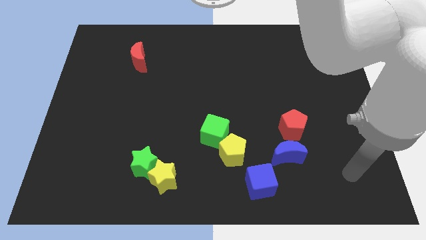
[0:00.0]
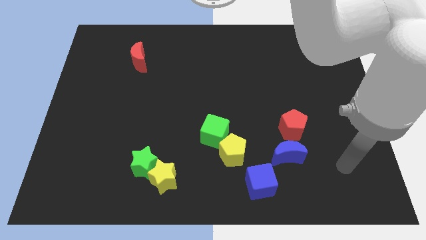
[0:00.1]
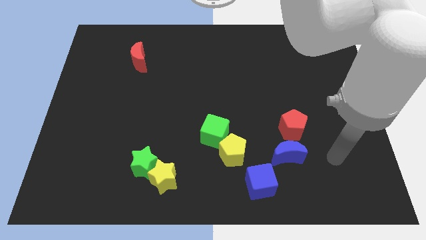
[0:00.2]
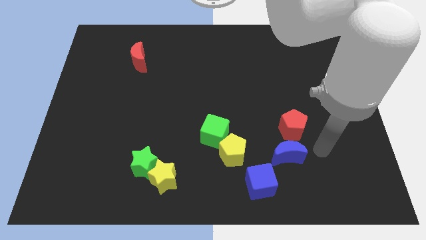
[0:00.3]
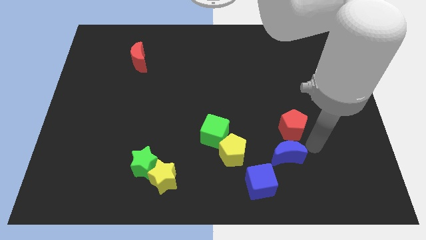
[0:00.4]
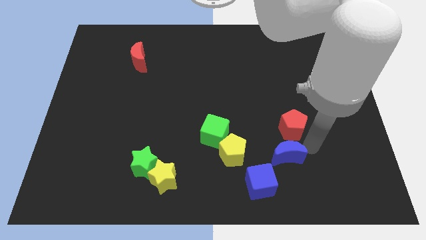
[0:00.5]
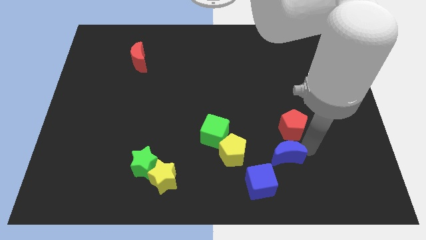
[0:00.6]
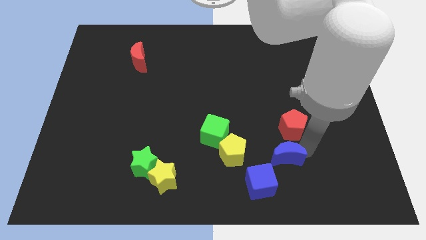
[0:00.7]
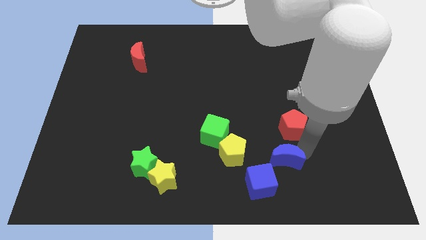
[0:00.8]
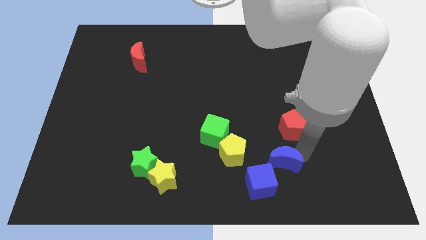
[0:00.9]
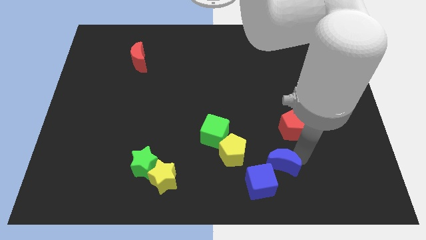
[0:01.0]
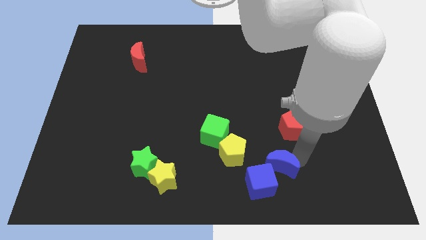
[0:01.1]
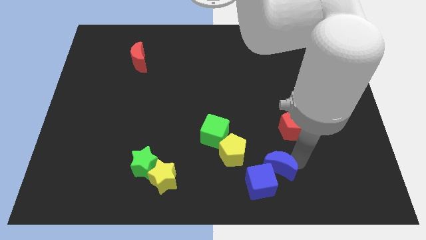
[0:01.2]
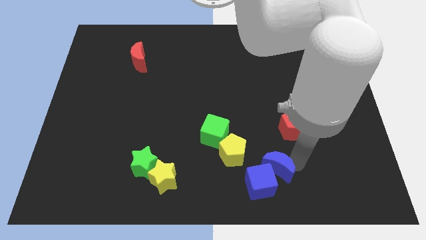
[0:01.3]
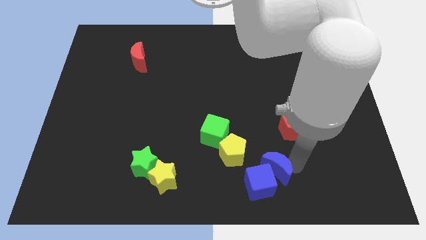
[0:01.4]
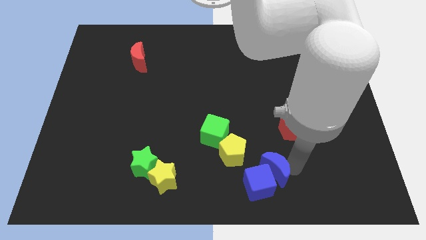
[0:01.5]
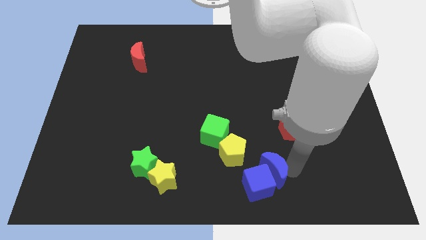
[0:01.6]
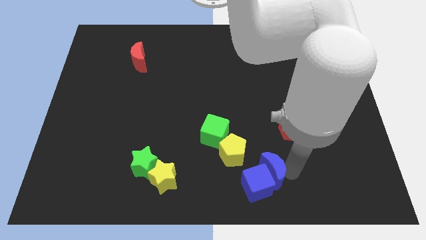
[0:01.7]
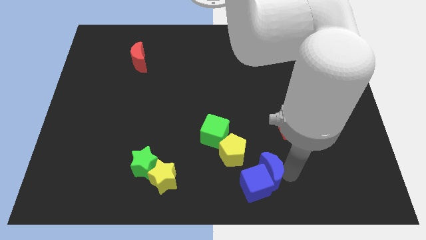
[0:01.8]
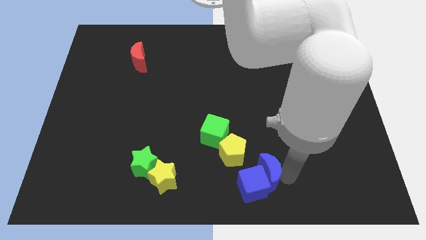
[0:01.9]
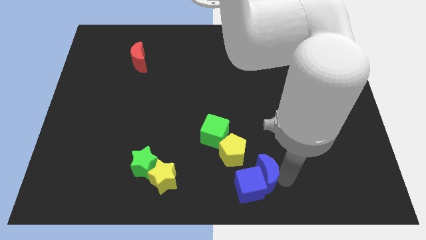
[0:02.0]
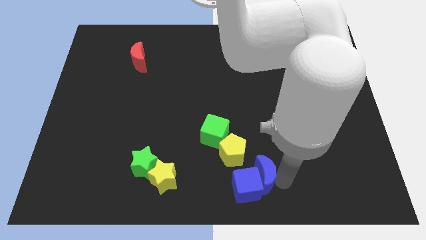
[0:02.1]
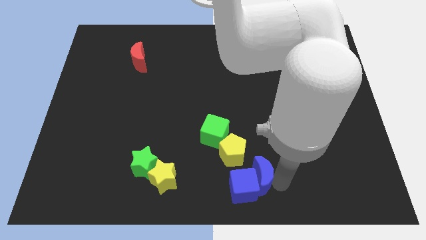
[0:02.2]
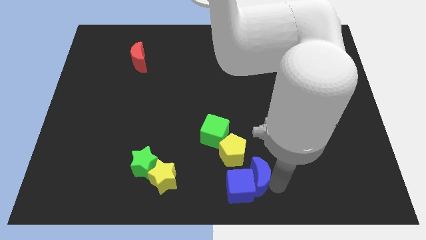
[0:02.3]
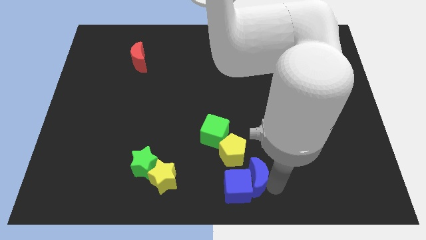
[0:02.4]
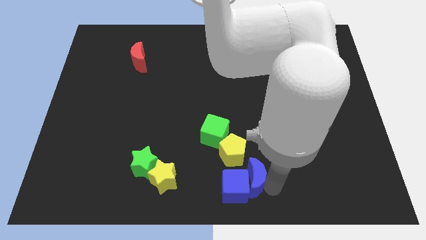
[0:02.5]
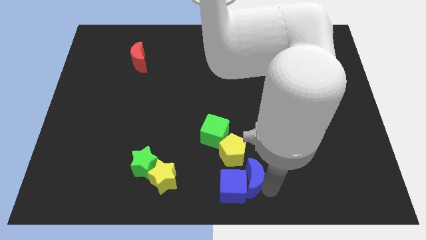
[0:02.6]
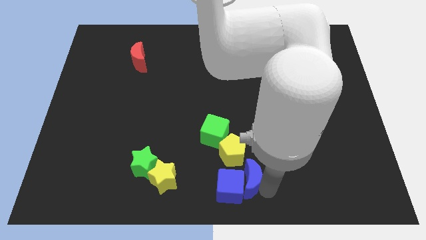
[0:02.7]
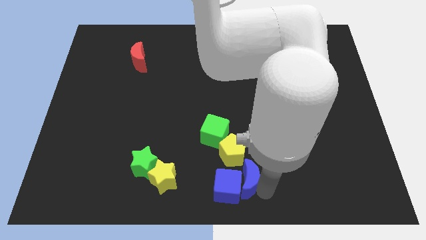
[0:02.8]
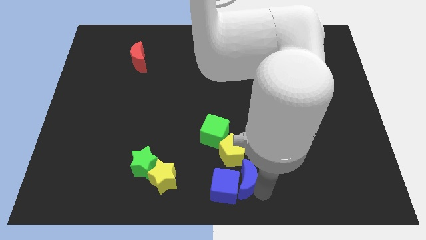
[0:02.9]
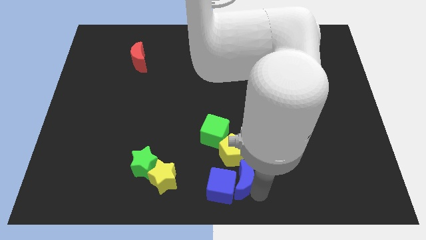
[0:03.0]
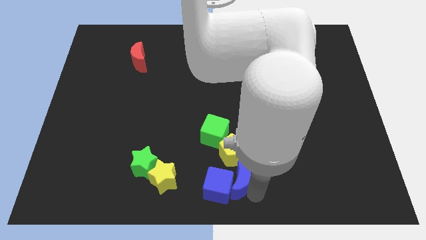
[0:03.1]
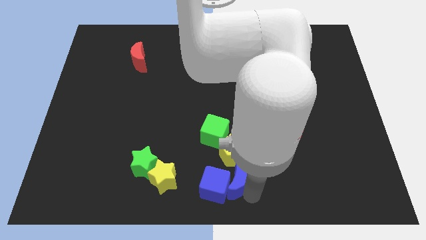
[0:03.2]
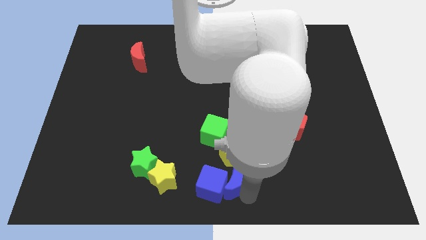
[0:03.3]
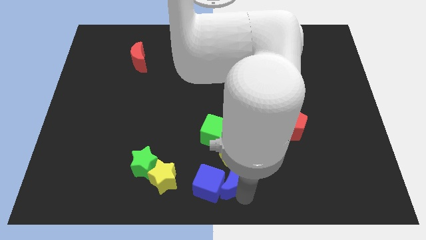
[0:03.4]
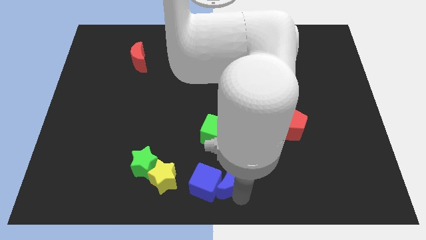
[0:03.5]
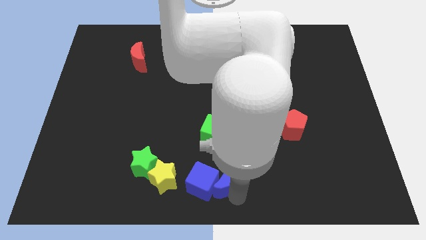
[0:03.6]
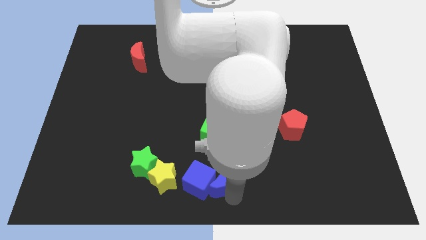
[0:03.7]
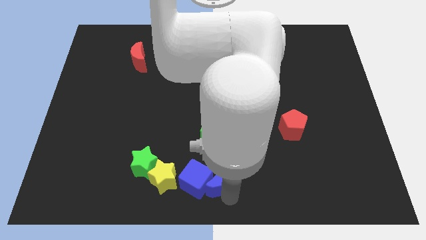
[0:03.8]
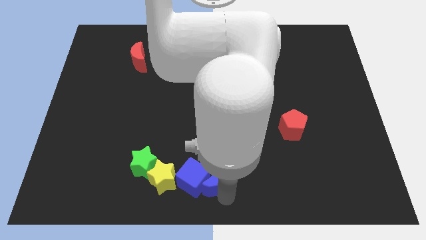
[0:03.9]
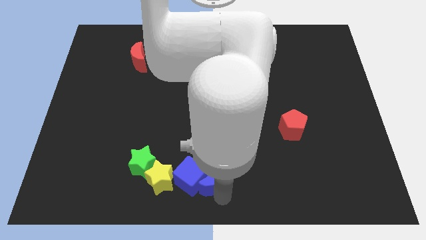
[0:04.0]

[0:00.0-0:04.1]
push the blue moon to the right side of the green star

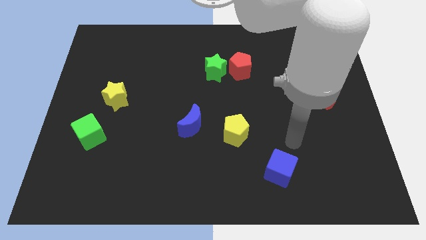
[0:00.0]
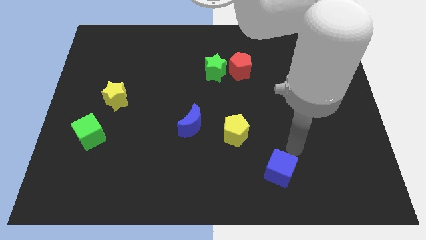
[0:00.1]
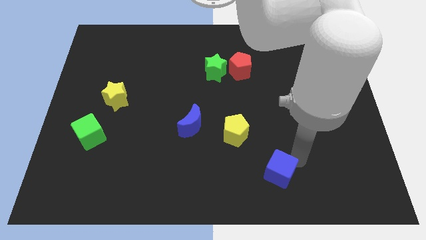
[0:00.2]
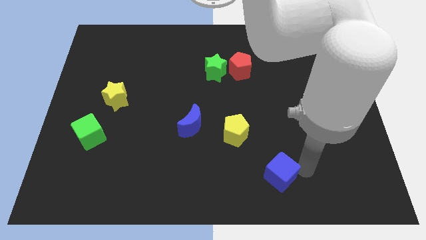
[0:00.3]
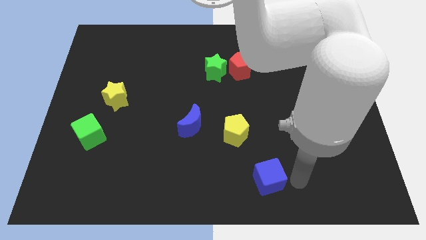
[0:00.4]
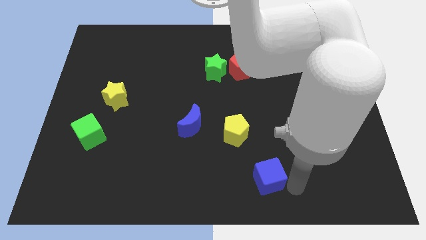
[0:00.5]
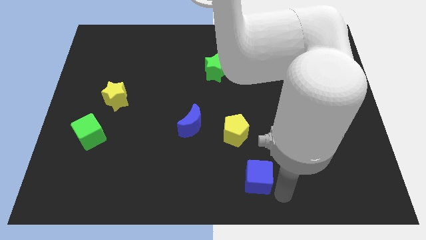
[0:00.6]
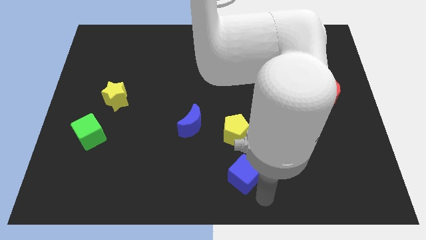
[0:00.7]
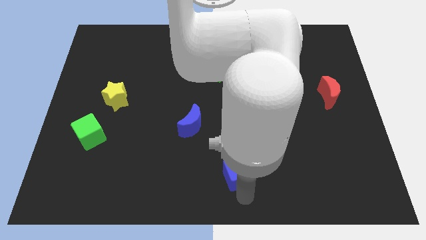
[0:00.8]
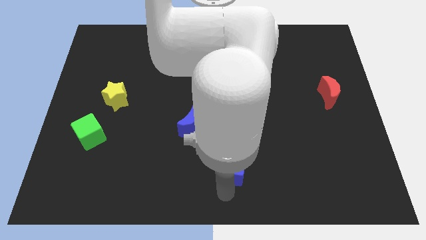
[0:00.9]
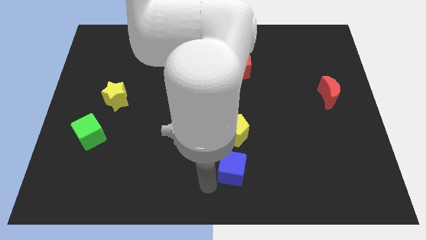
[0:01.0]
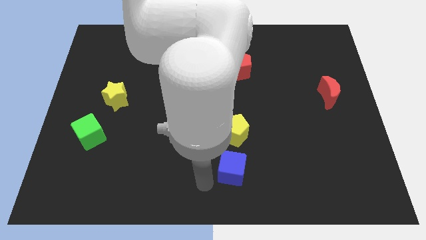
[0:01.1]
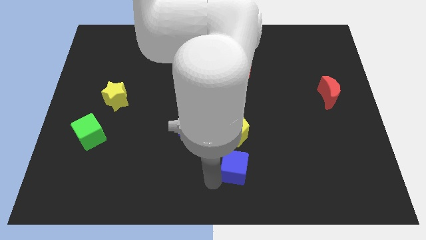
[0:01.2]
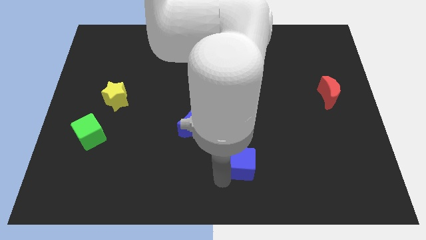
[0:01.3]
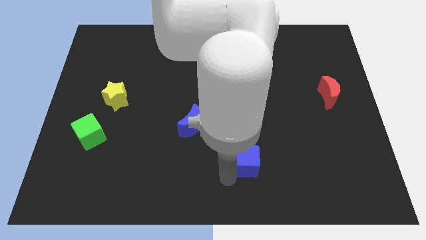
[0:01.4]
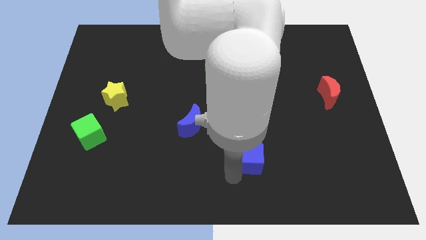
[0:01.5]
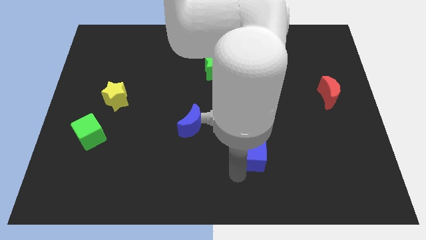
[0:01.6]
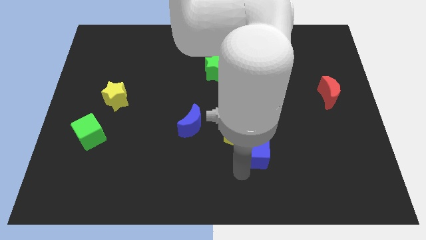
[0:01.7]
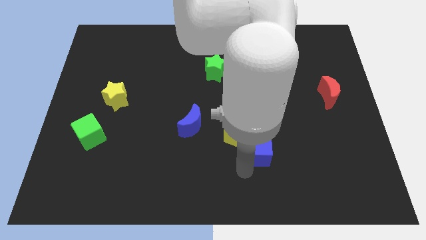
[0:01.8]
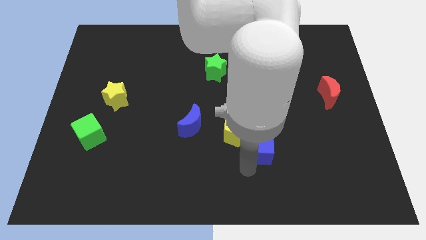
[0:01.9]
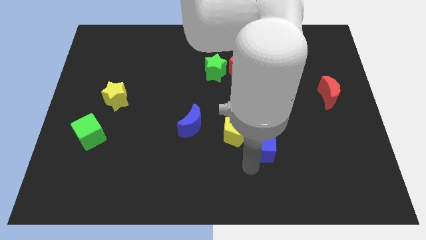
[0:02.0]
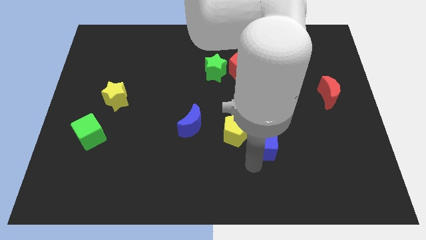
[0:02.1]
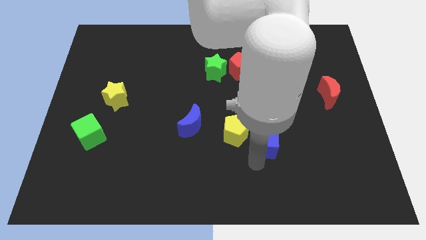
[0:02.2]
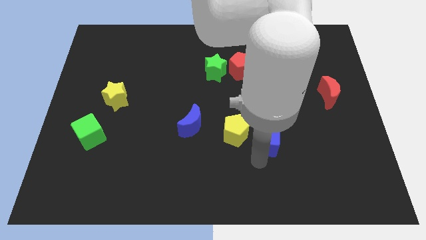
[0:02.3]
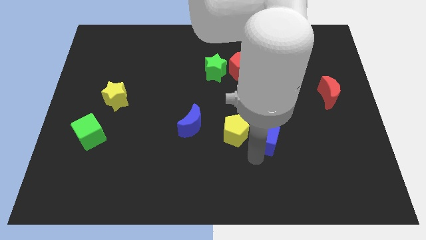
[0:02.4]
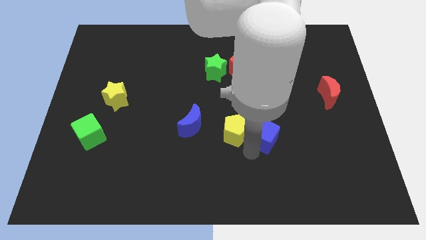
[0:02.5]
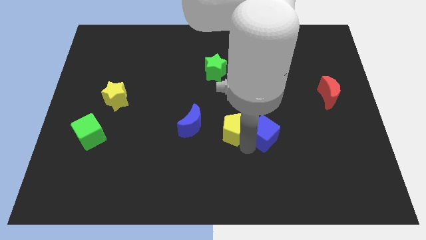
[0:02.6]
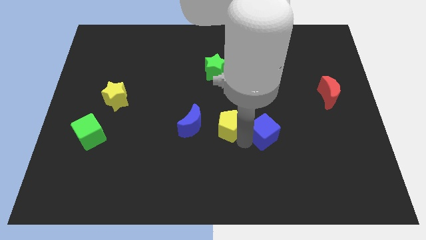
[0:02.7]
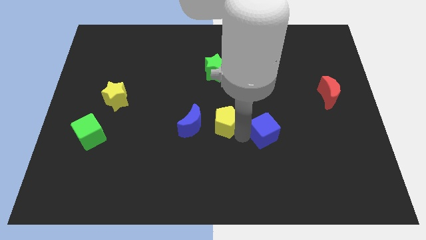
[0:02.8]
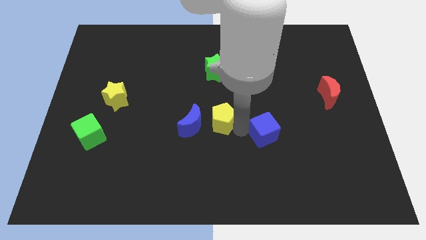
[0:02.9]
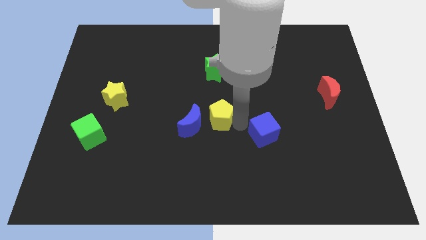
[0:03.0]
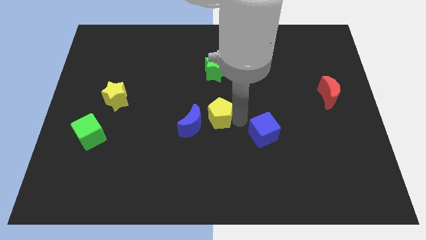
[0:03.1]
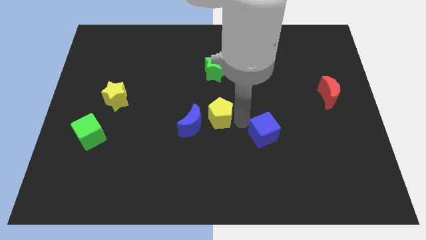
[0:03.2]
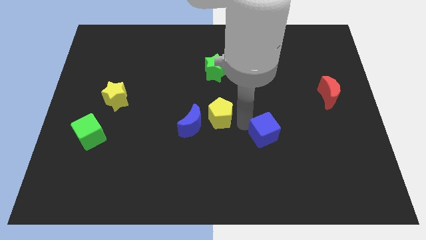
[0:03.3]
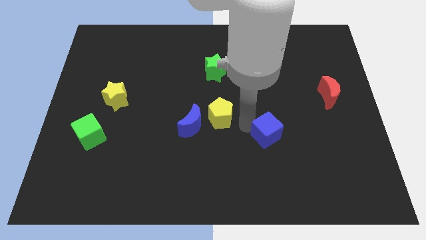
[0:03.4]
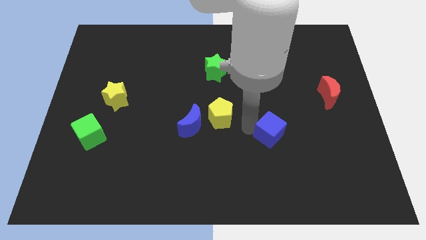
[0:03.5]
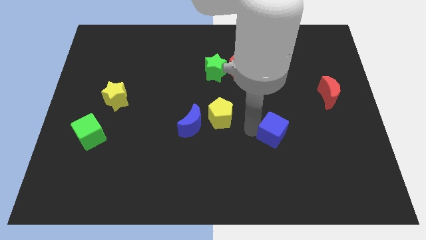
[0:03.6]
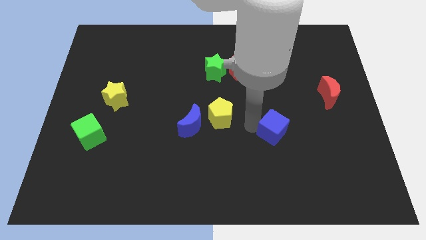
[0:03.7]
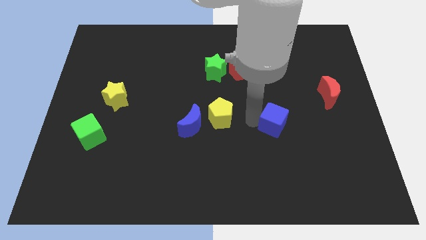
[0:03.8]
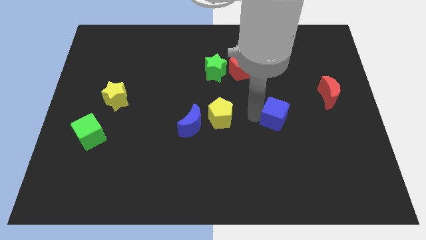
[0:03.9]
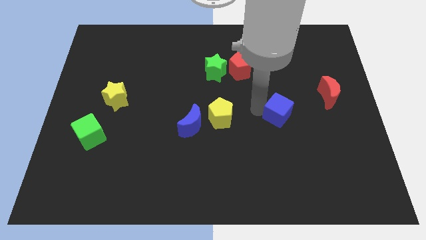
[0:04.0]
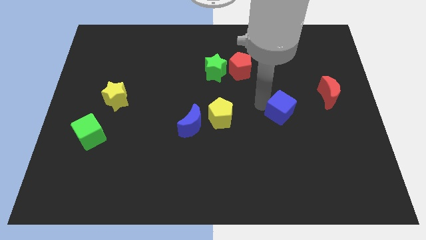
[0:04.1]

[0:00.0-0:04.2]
move the blue cube to the left of the red moon
